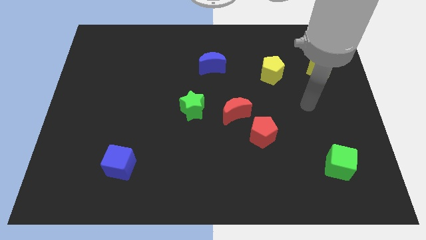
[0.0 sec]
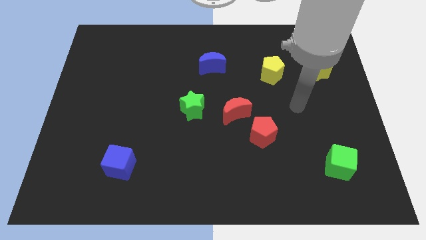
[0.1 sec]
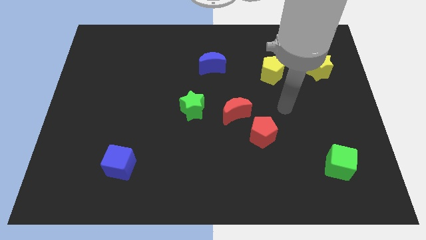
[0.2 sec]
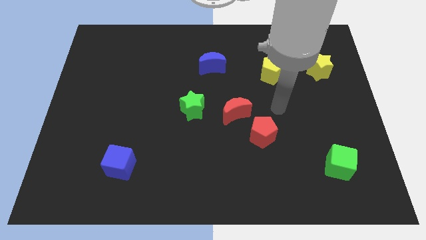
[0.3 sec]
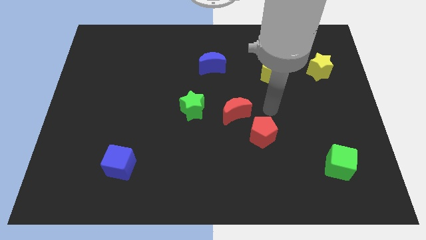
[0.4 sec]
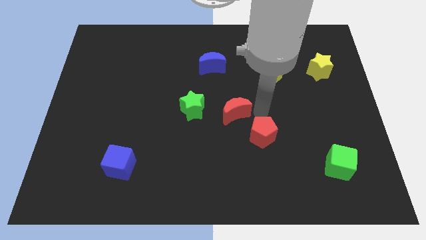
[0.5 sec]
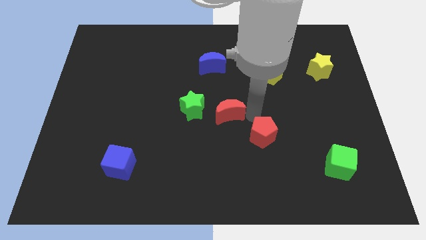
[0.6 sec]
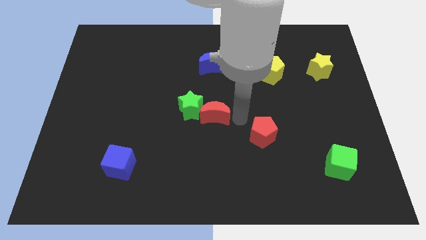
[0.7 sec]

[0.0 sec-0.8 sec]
separate the red pentagon from the red moon

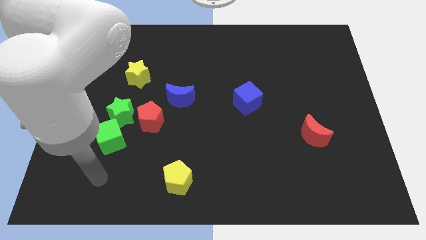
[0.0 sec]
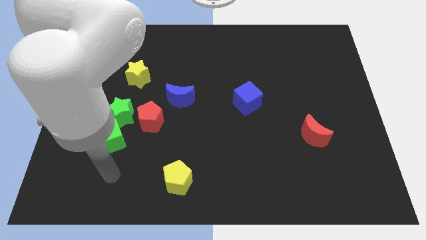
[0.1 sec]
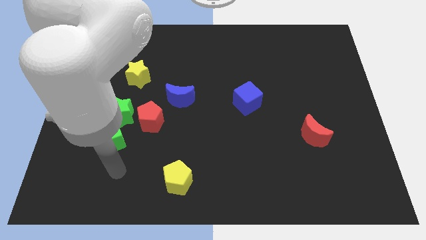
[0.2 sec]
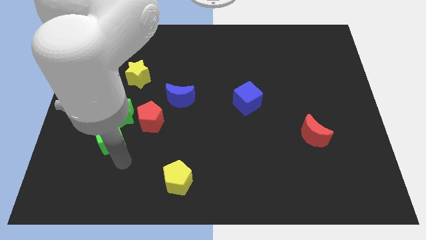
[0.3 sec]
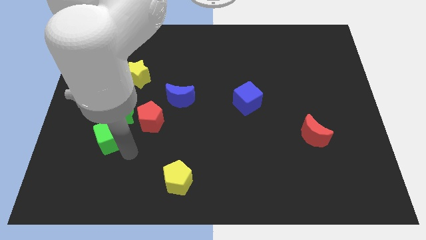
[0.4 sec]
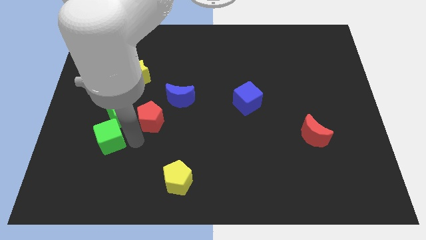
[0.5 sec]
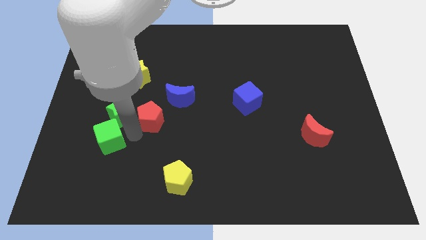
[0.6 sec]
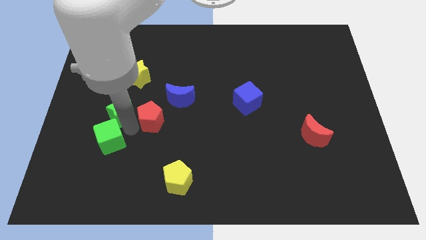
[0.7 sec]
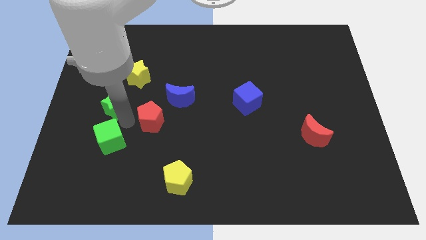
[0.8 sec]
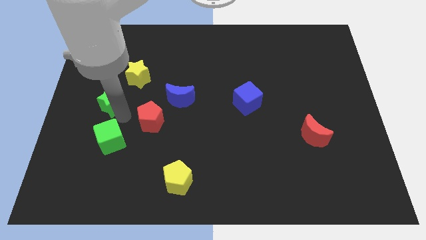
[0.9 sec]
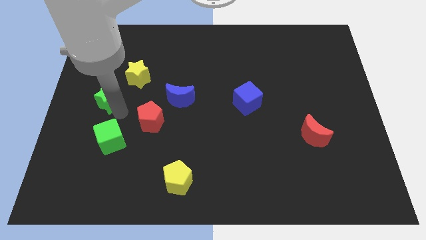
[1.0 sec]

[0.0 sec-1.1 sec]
separate the green star from the red pentagon and green cube

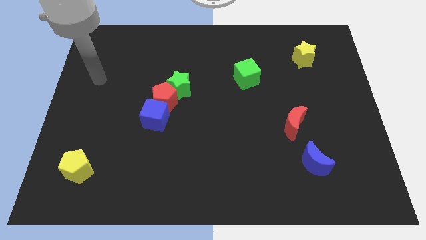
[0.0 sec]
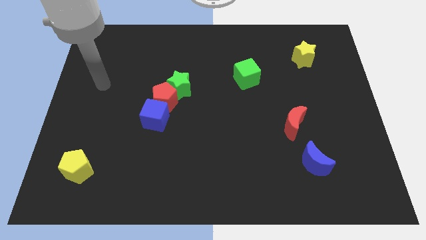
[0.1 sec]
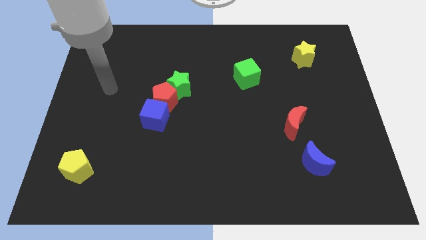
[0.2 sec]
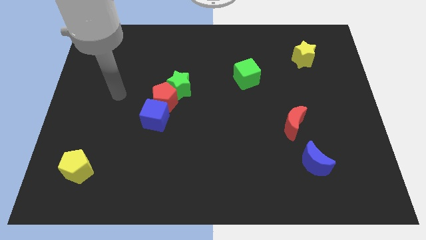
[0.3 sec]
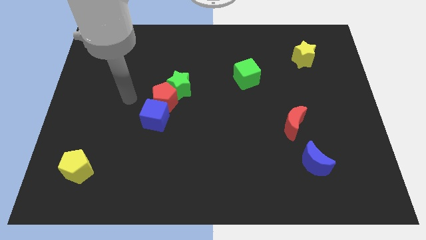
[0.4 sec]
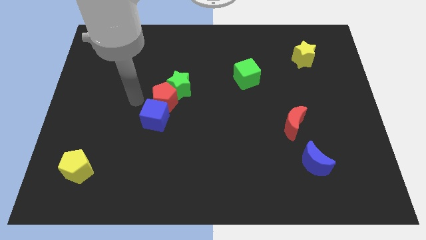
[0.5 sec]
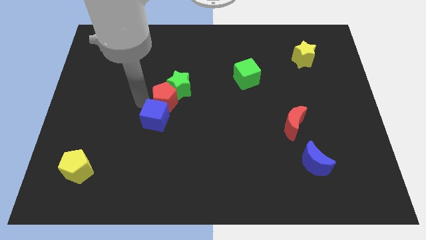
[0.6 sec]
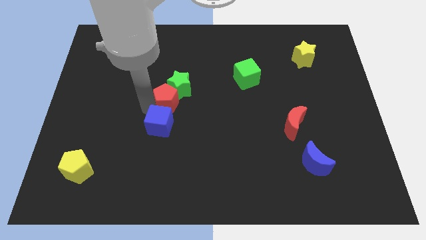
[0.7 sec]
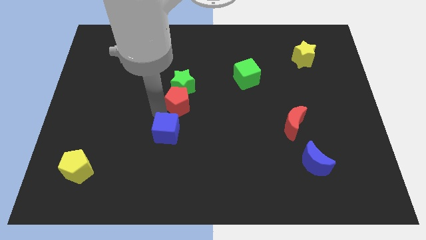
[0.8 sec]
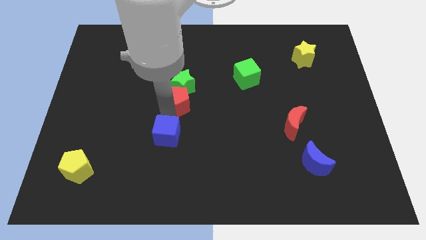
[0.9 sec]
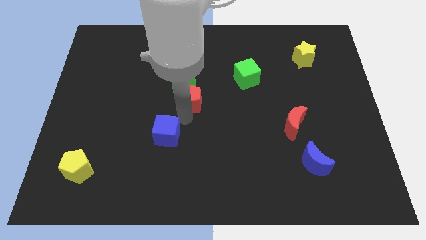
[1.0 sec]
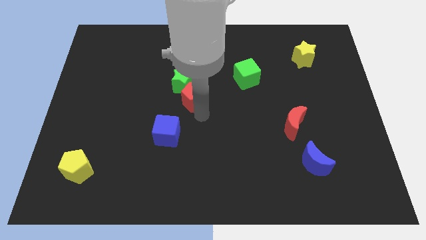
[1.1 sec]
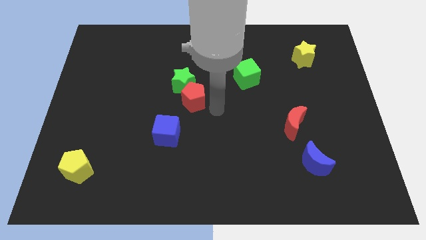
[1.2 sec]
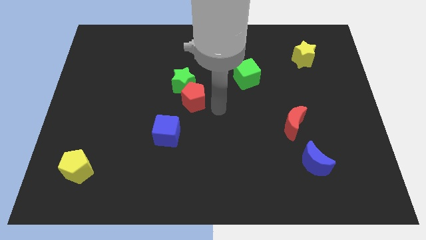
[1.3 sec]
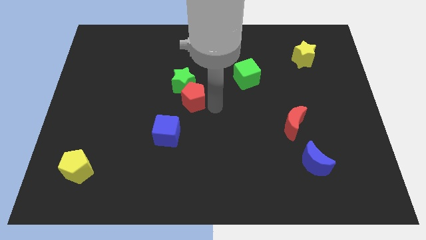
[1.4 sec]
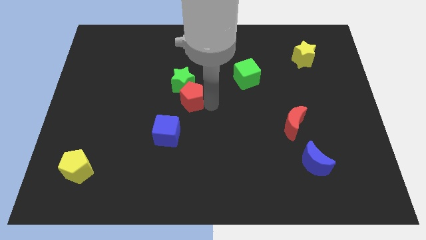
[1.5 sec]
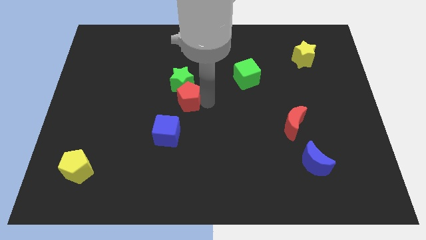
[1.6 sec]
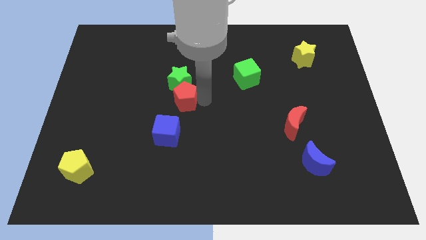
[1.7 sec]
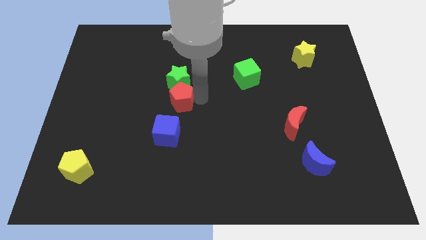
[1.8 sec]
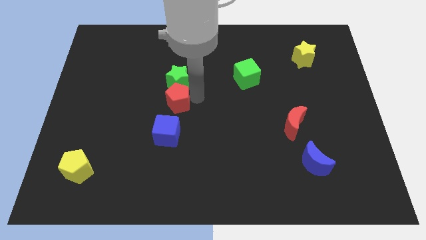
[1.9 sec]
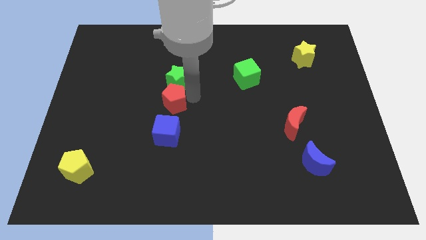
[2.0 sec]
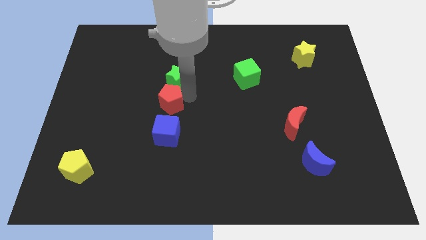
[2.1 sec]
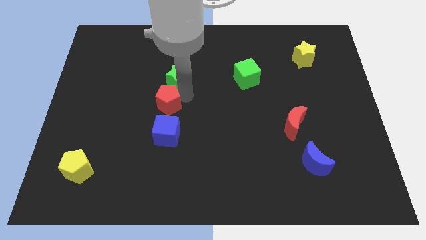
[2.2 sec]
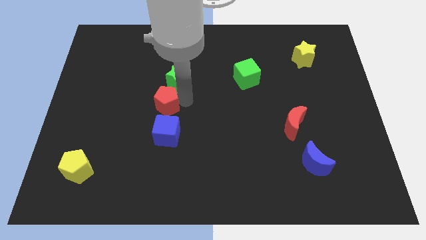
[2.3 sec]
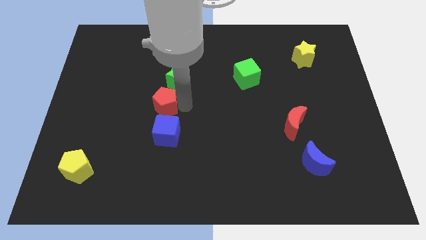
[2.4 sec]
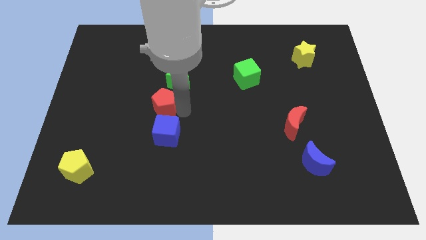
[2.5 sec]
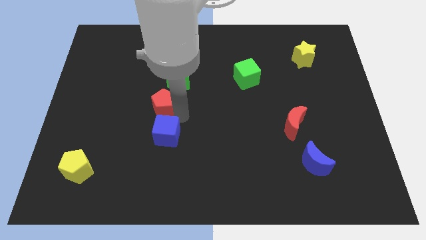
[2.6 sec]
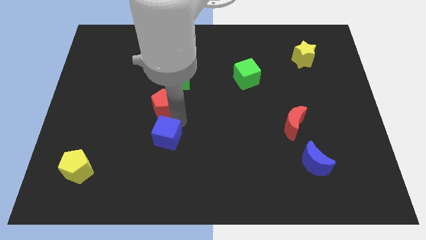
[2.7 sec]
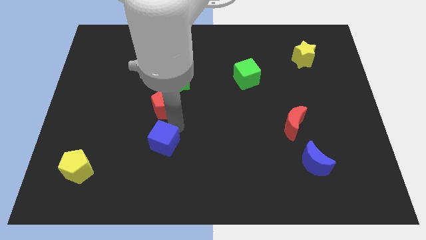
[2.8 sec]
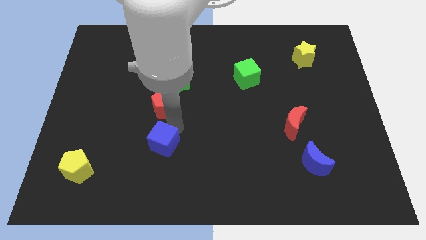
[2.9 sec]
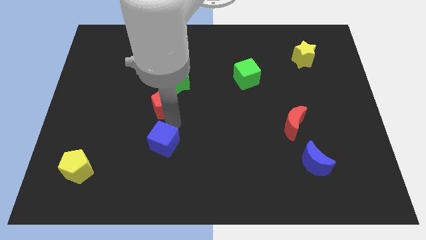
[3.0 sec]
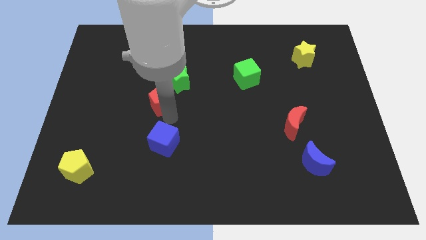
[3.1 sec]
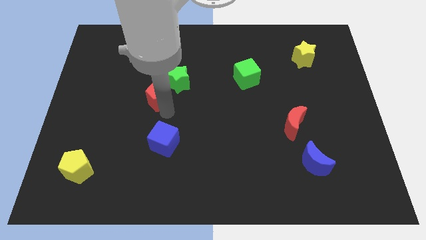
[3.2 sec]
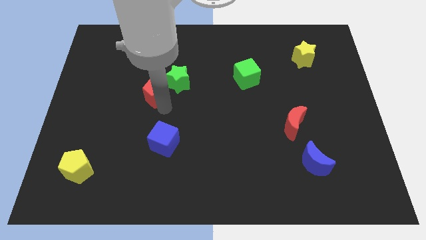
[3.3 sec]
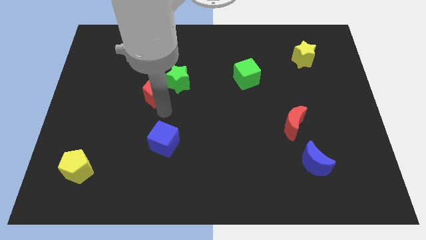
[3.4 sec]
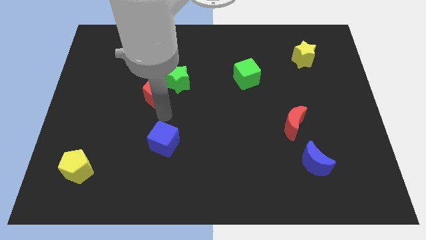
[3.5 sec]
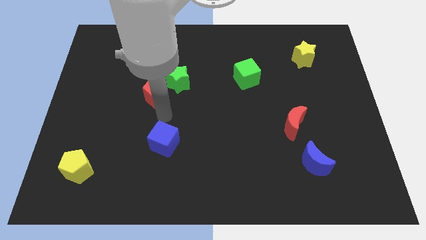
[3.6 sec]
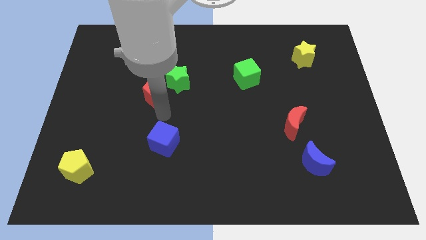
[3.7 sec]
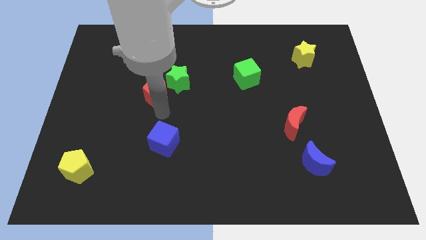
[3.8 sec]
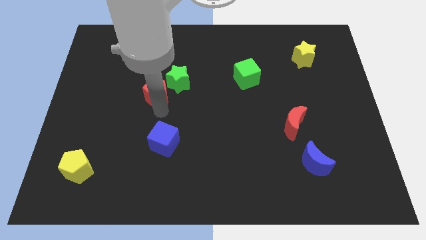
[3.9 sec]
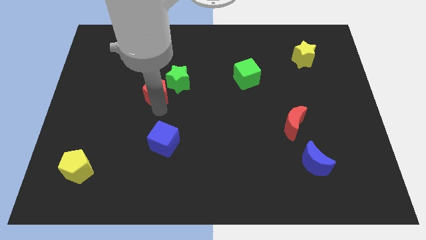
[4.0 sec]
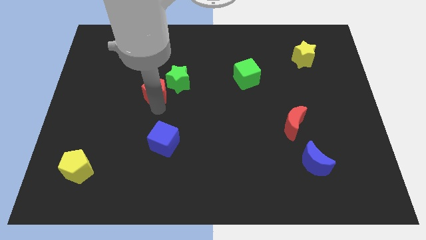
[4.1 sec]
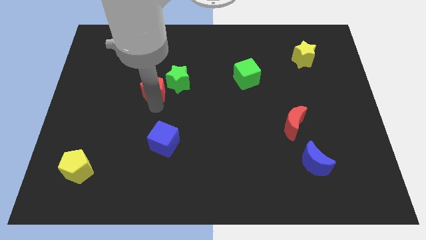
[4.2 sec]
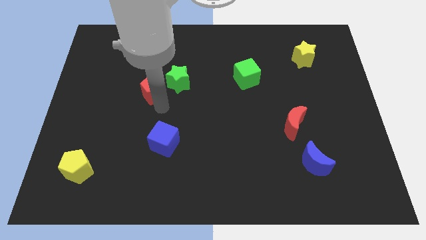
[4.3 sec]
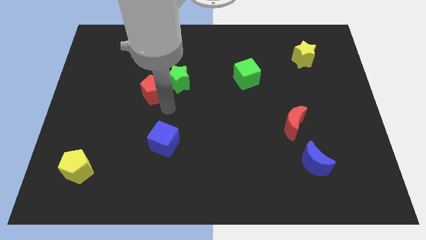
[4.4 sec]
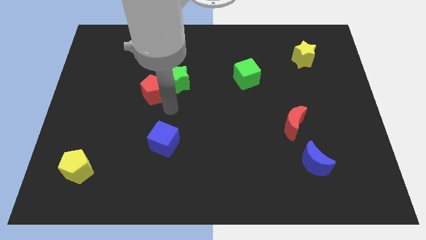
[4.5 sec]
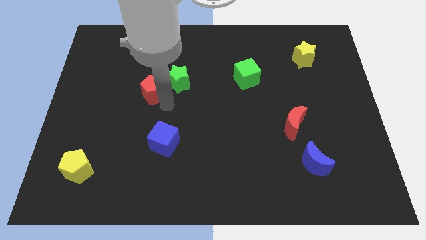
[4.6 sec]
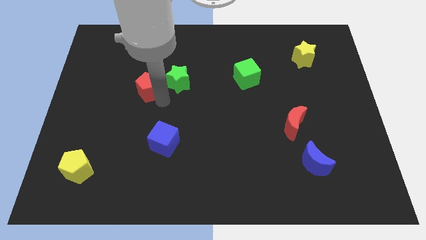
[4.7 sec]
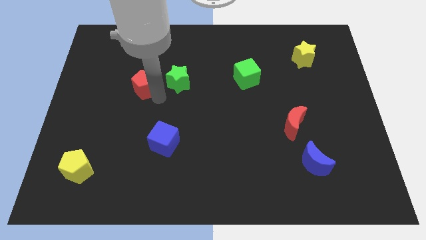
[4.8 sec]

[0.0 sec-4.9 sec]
pull the red pentagon apart from the green star and blue cube

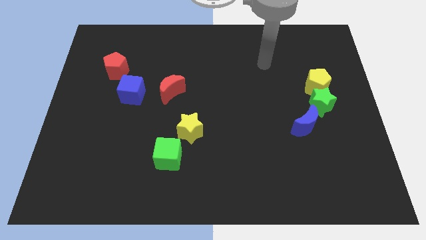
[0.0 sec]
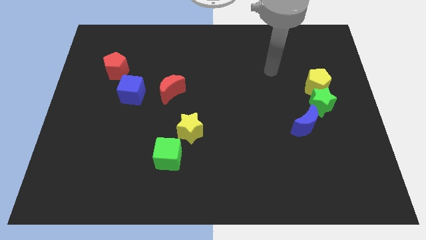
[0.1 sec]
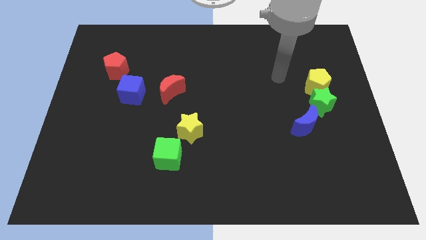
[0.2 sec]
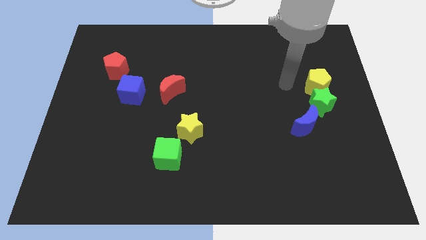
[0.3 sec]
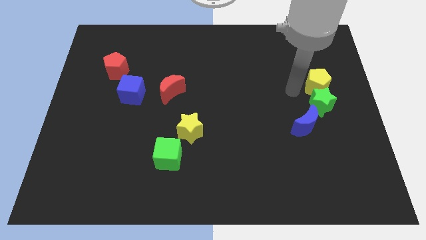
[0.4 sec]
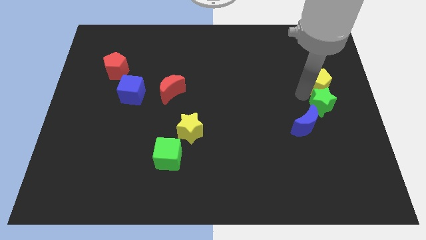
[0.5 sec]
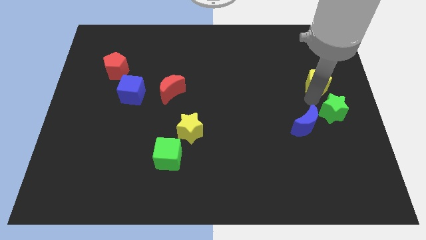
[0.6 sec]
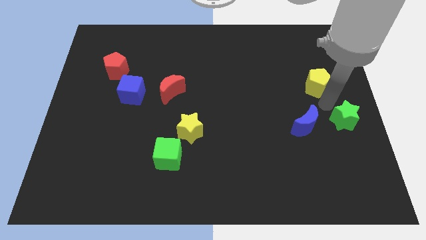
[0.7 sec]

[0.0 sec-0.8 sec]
pull the yellow pentagon apart from the green star

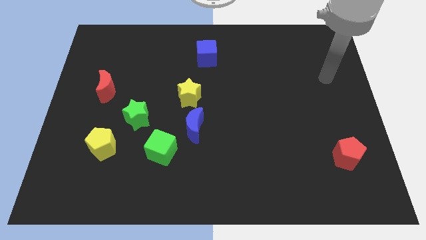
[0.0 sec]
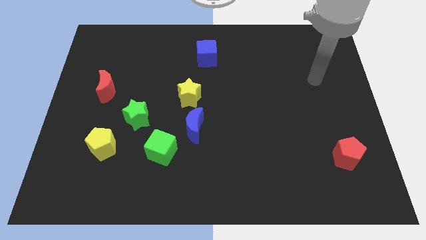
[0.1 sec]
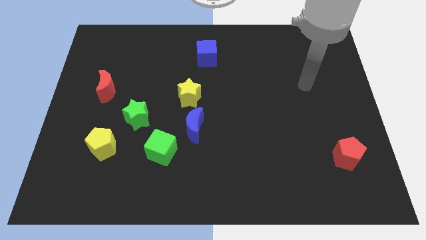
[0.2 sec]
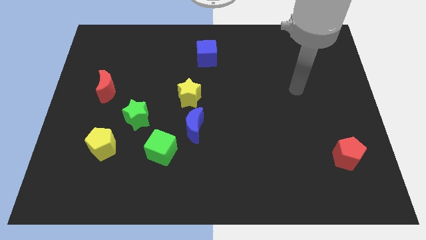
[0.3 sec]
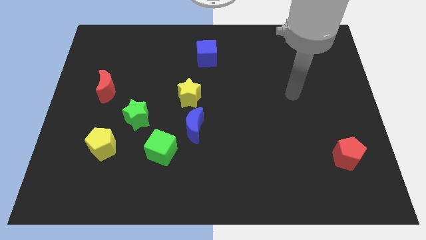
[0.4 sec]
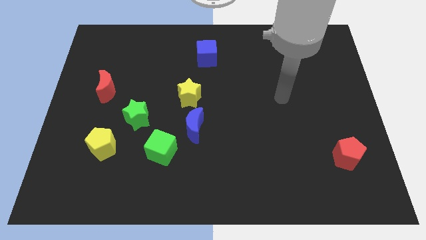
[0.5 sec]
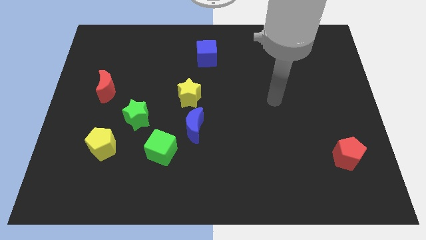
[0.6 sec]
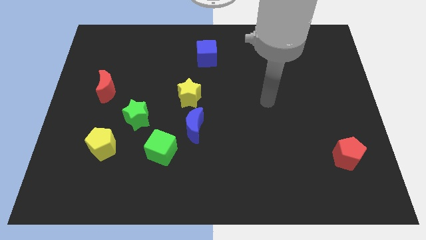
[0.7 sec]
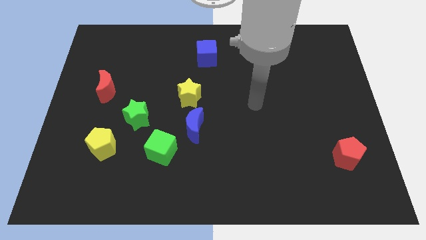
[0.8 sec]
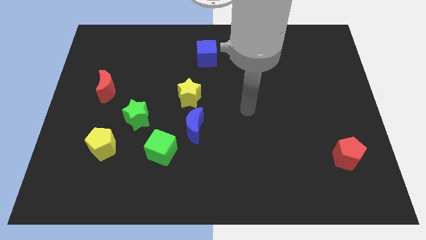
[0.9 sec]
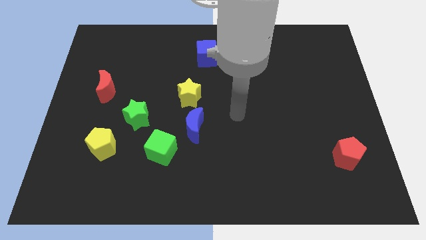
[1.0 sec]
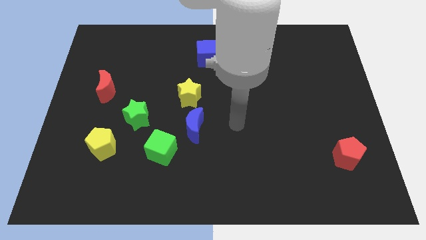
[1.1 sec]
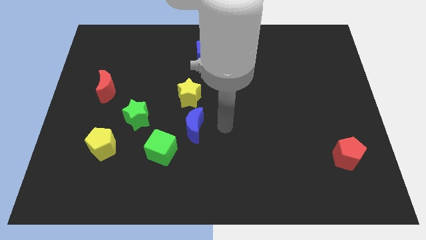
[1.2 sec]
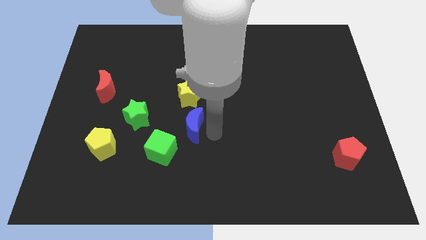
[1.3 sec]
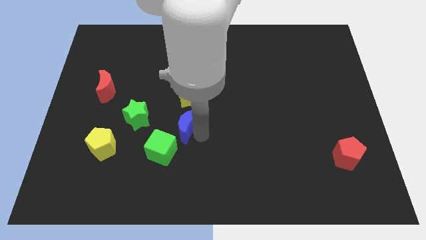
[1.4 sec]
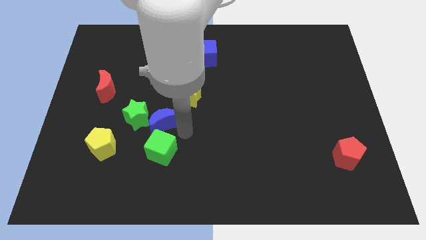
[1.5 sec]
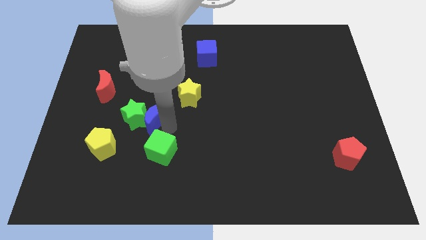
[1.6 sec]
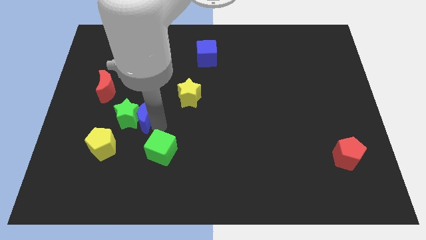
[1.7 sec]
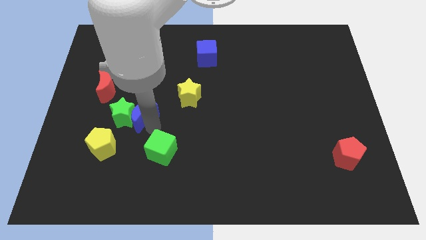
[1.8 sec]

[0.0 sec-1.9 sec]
move the green cube away from the blue moon
